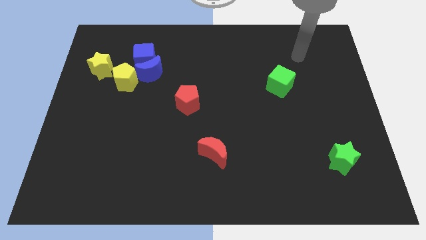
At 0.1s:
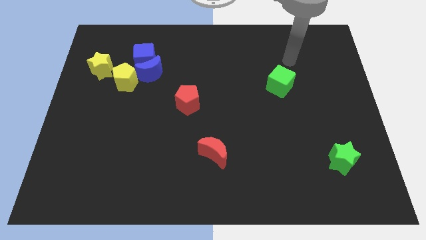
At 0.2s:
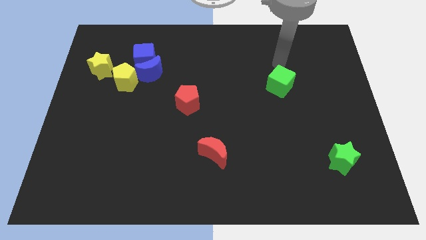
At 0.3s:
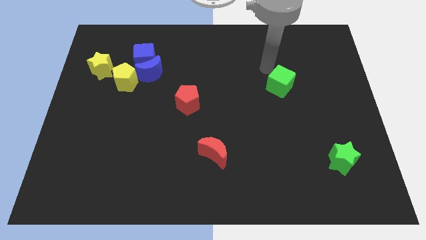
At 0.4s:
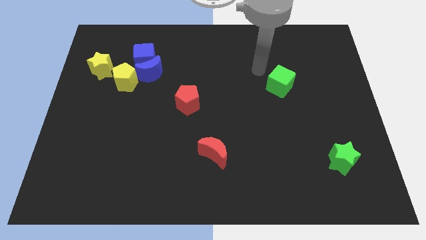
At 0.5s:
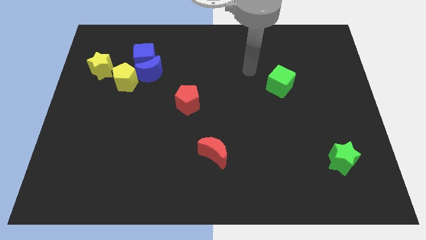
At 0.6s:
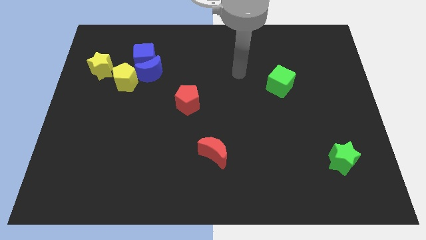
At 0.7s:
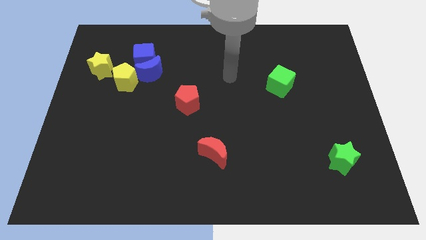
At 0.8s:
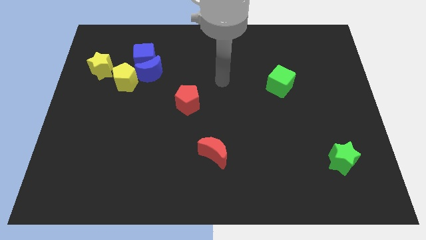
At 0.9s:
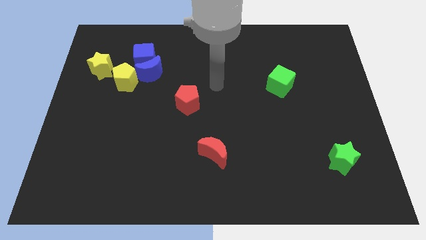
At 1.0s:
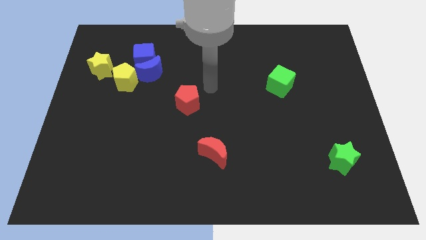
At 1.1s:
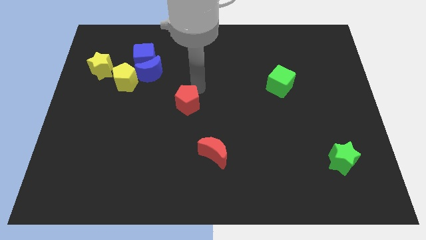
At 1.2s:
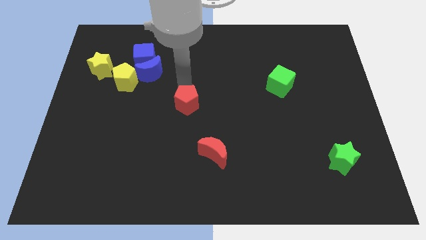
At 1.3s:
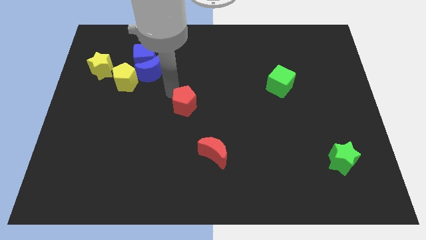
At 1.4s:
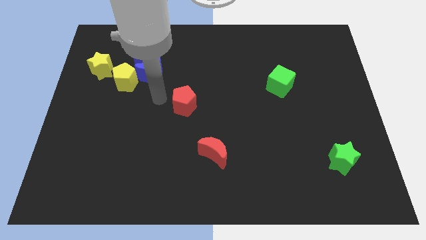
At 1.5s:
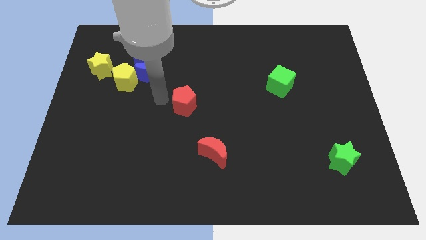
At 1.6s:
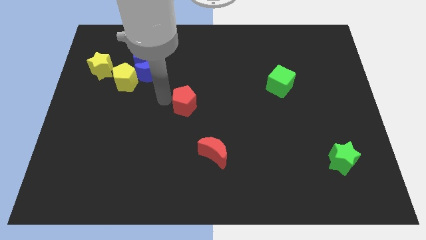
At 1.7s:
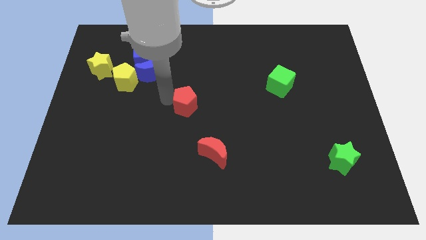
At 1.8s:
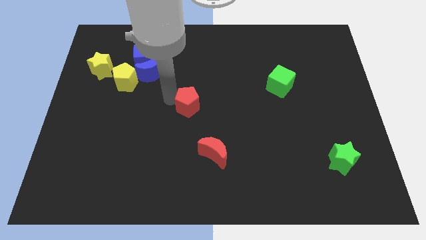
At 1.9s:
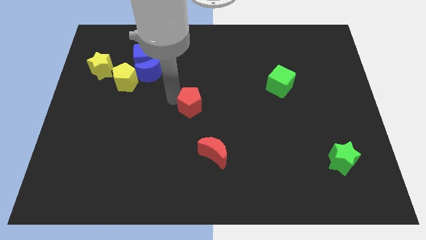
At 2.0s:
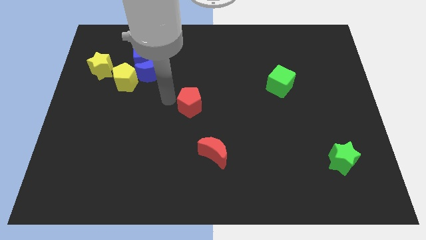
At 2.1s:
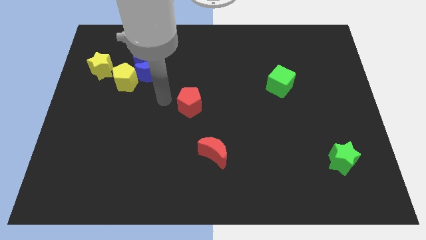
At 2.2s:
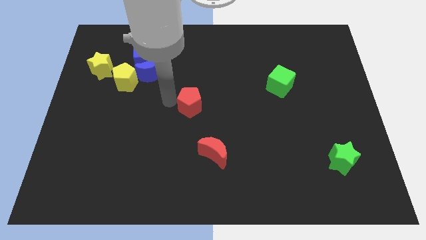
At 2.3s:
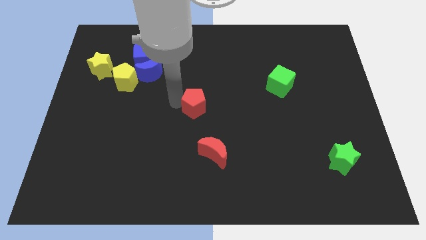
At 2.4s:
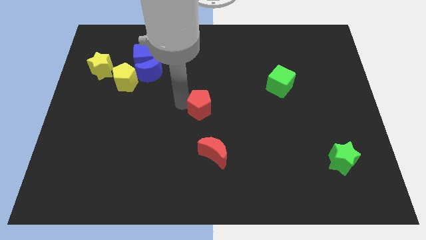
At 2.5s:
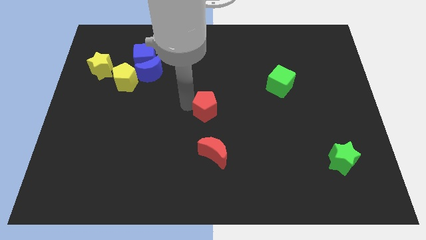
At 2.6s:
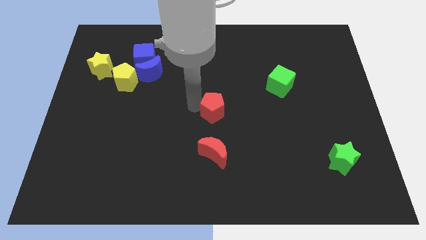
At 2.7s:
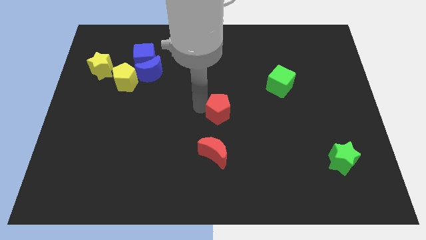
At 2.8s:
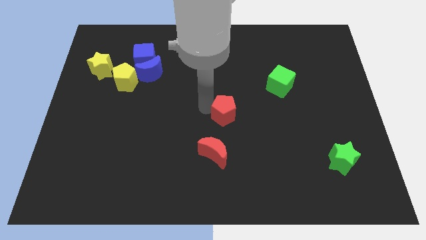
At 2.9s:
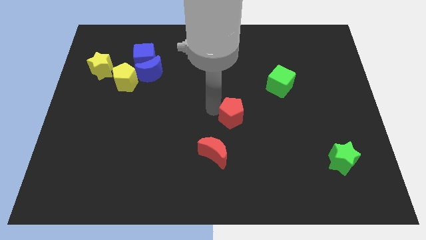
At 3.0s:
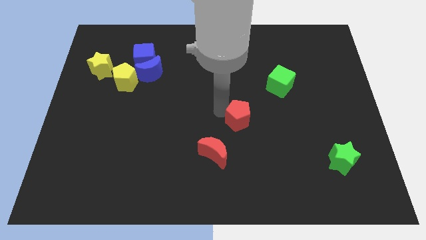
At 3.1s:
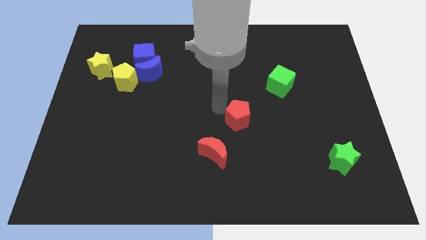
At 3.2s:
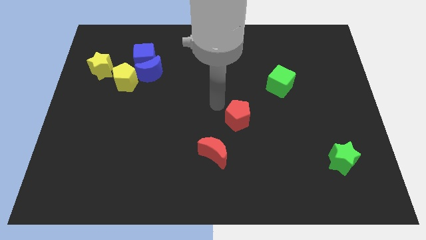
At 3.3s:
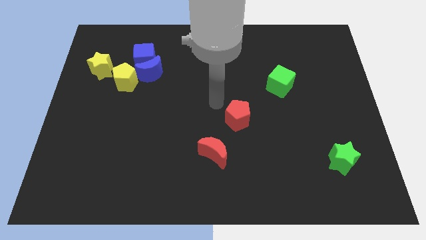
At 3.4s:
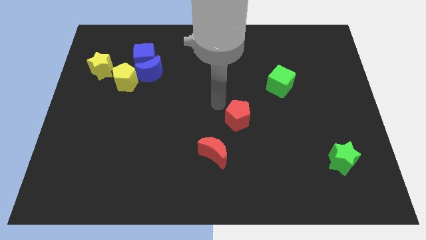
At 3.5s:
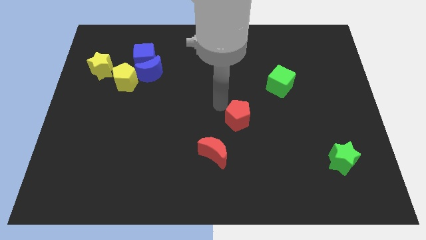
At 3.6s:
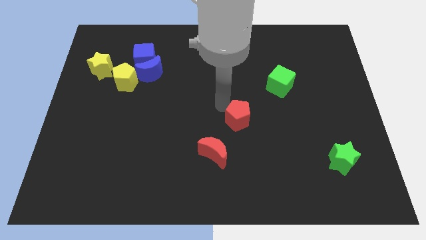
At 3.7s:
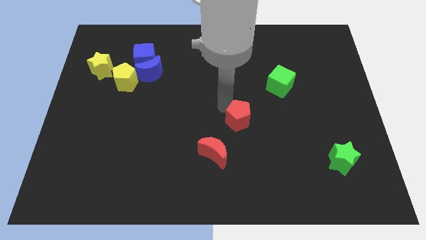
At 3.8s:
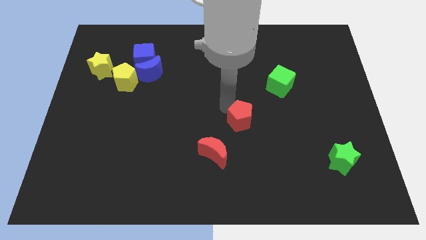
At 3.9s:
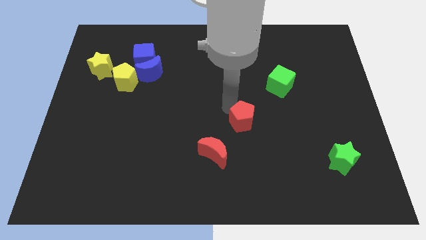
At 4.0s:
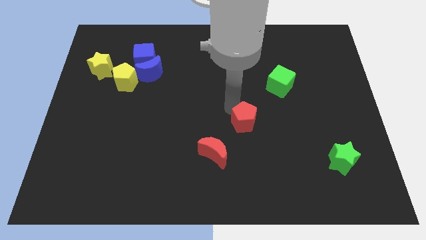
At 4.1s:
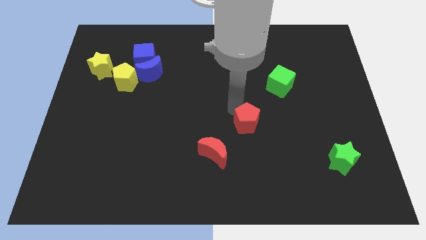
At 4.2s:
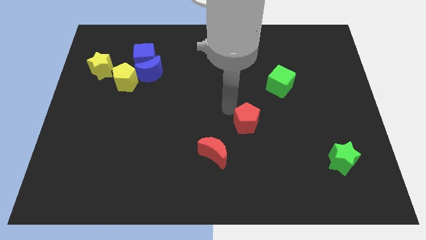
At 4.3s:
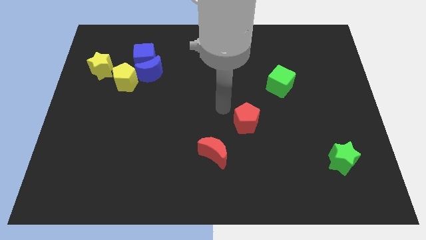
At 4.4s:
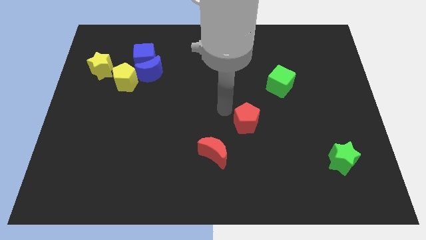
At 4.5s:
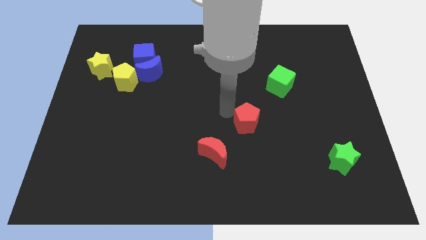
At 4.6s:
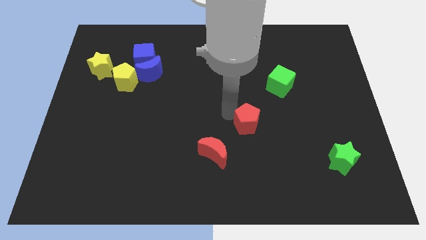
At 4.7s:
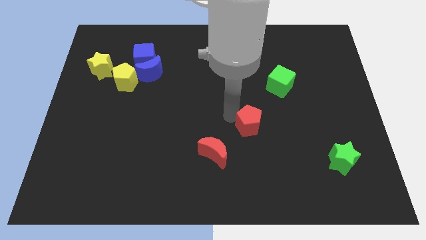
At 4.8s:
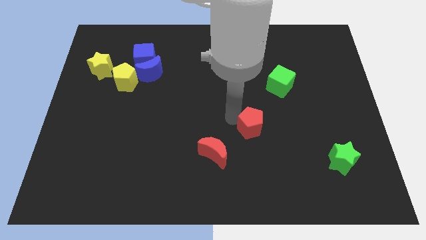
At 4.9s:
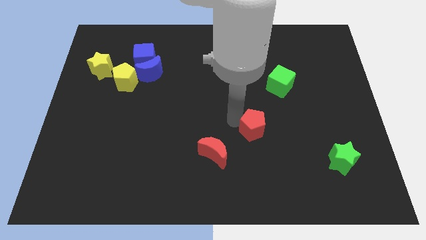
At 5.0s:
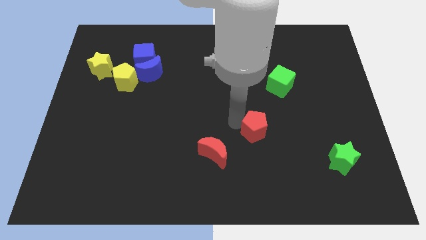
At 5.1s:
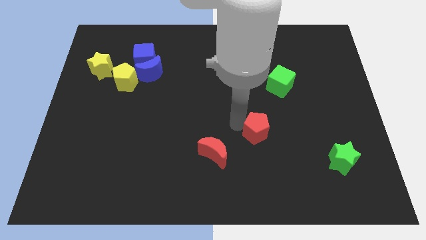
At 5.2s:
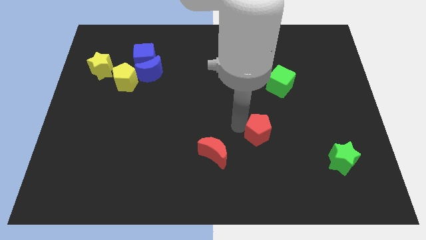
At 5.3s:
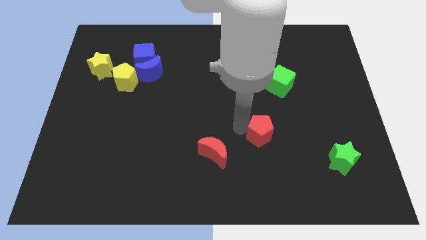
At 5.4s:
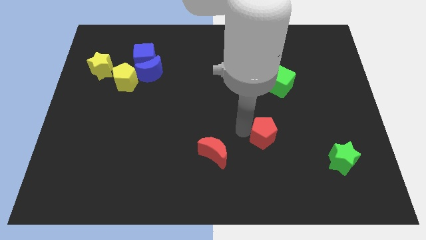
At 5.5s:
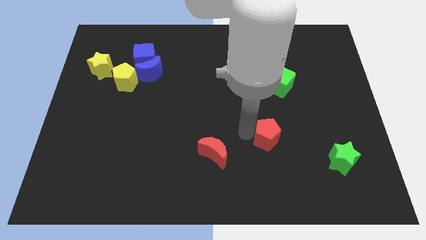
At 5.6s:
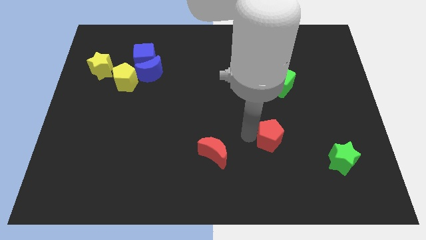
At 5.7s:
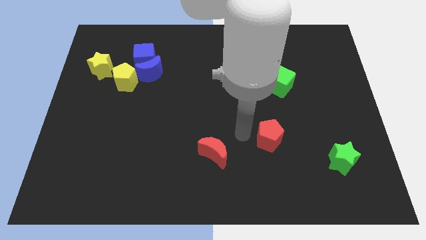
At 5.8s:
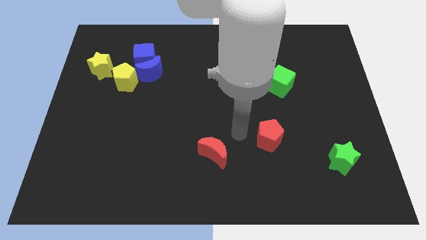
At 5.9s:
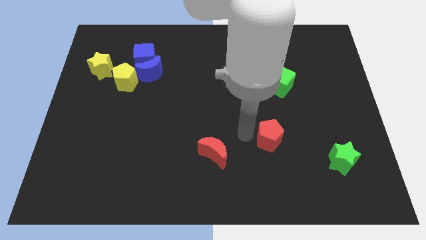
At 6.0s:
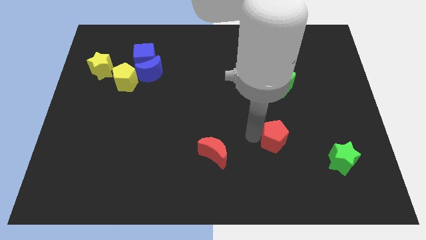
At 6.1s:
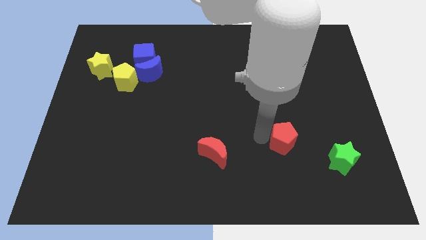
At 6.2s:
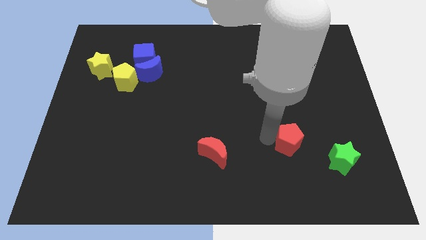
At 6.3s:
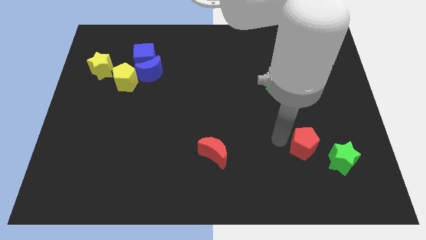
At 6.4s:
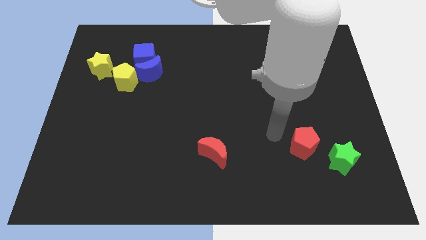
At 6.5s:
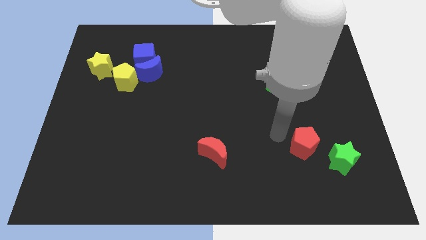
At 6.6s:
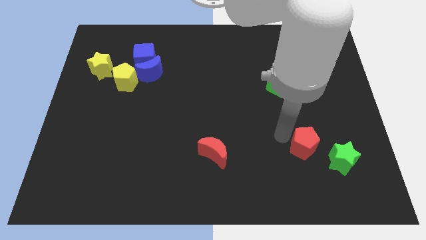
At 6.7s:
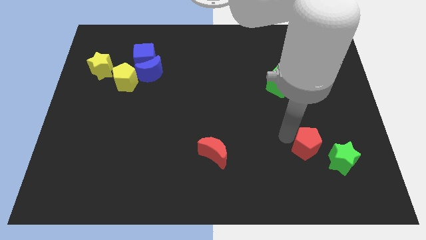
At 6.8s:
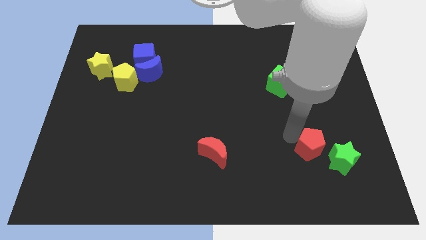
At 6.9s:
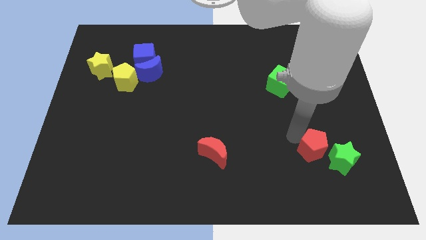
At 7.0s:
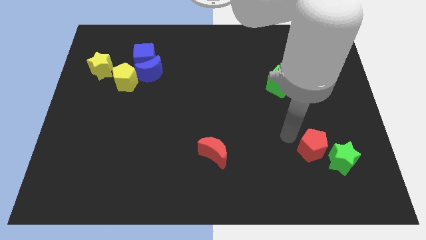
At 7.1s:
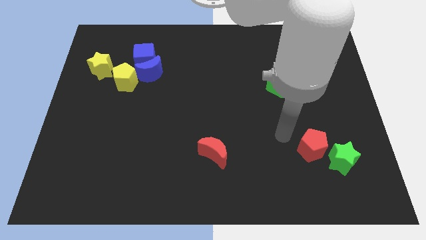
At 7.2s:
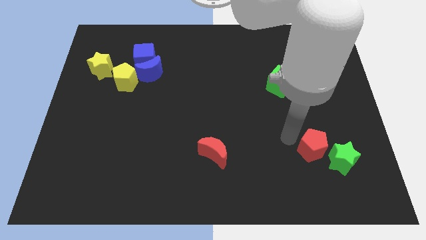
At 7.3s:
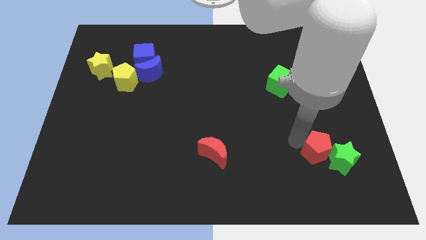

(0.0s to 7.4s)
put the red pentagon towards the green star

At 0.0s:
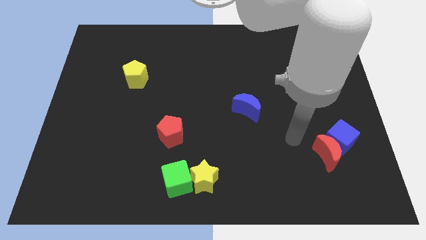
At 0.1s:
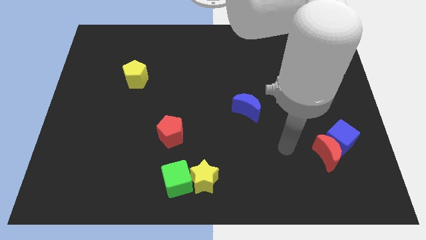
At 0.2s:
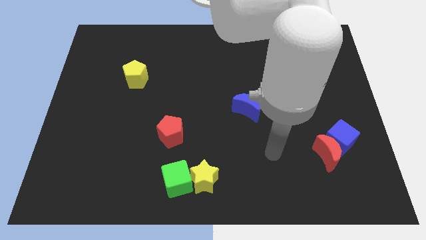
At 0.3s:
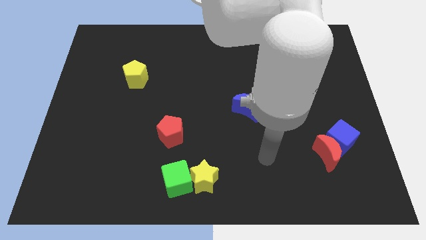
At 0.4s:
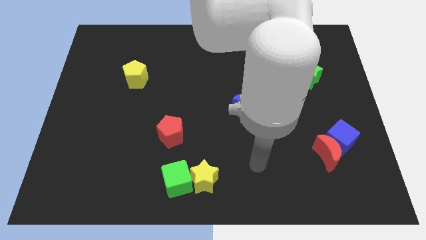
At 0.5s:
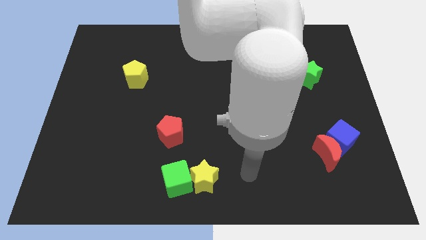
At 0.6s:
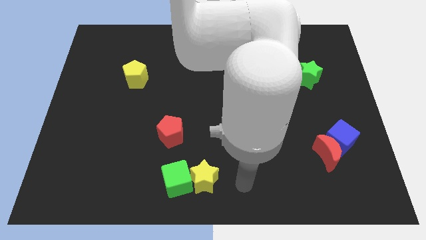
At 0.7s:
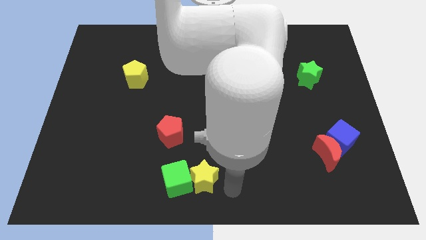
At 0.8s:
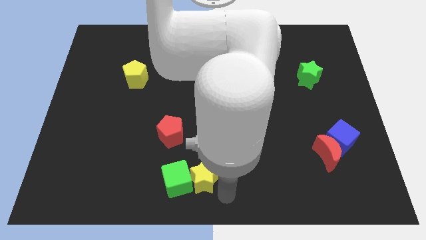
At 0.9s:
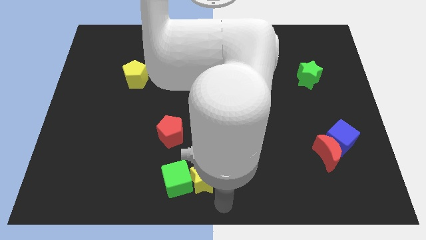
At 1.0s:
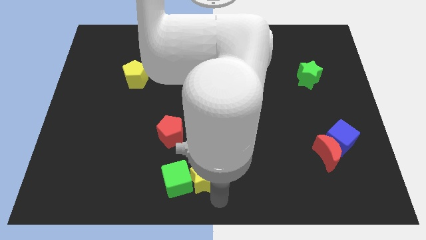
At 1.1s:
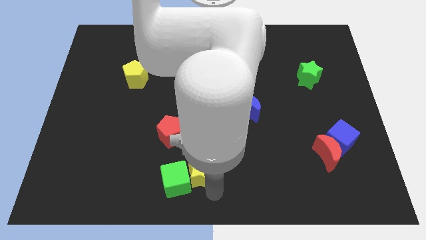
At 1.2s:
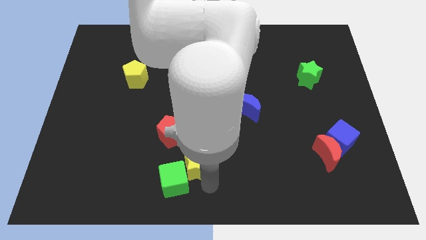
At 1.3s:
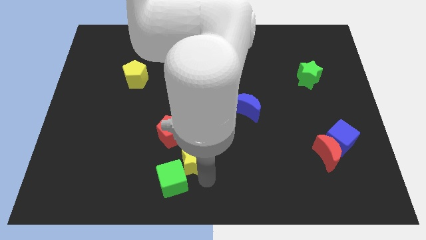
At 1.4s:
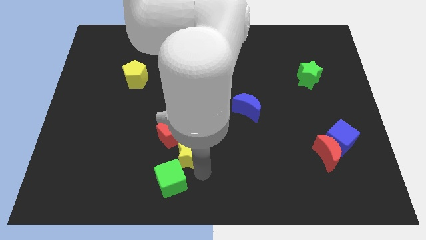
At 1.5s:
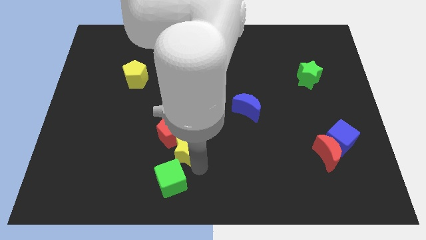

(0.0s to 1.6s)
push the yellow star to the red pentagon
